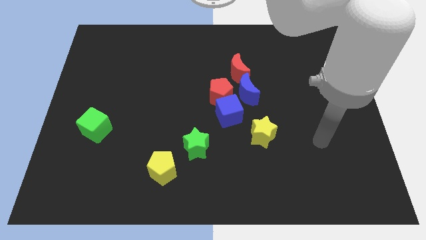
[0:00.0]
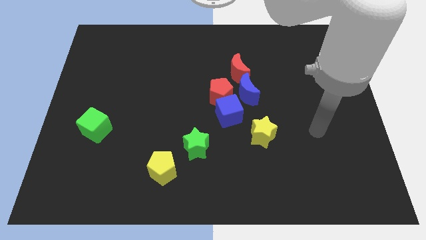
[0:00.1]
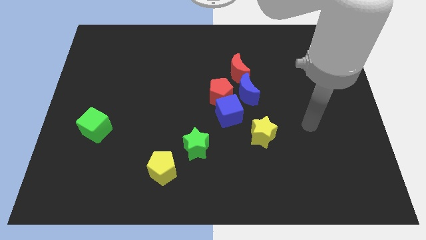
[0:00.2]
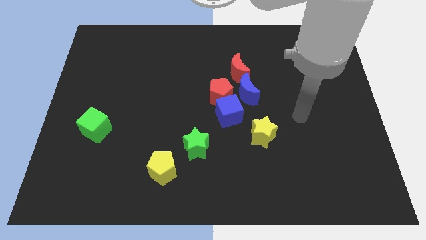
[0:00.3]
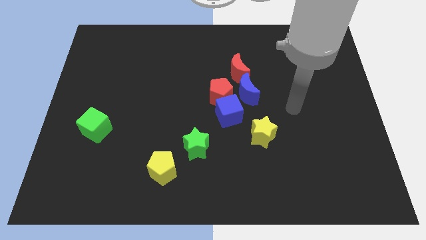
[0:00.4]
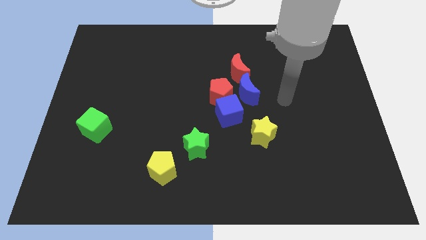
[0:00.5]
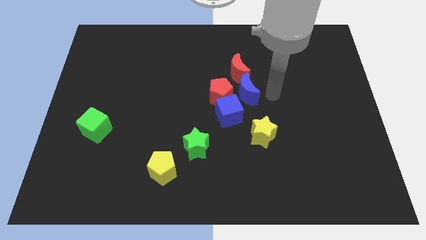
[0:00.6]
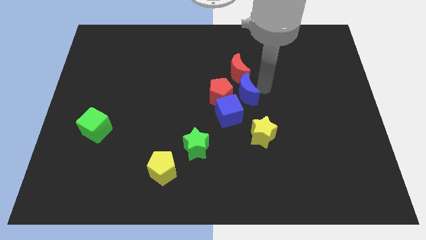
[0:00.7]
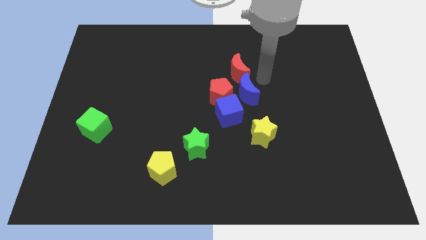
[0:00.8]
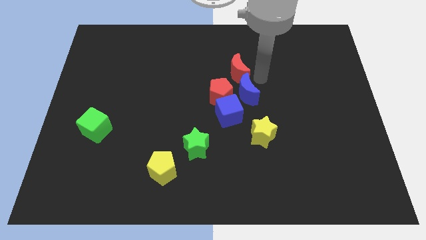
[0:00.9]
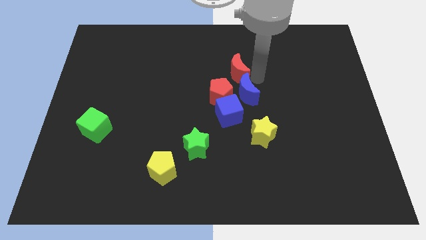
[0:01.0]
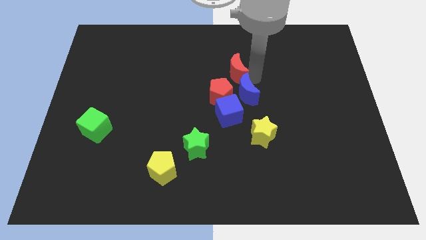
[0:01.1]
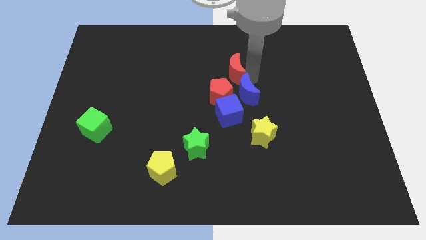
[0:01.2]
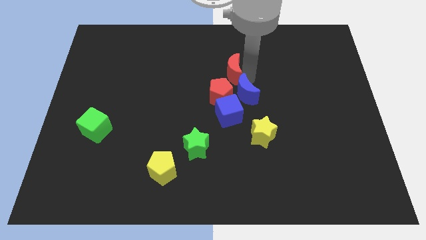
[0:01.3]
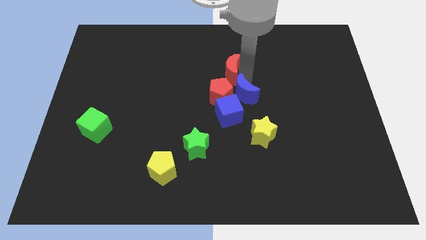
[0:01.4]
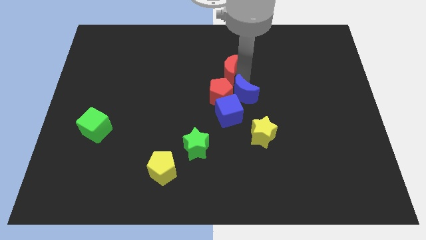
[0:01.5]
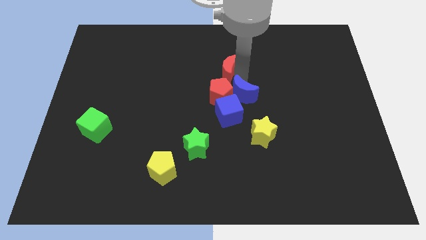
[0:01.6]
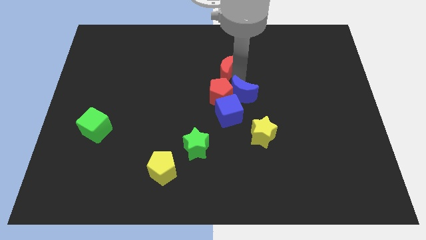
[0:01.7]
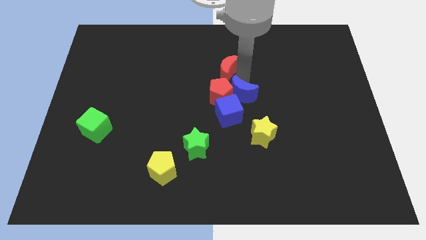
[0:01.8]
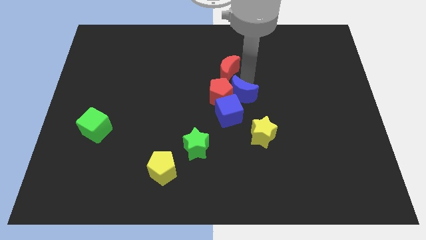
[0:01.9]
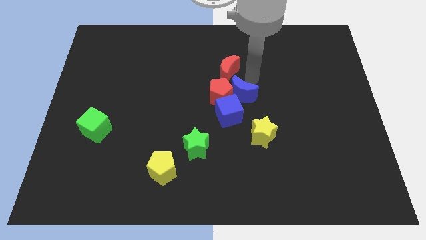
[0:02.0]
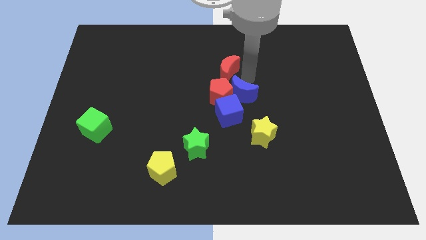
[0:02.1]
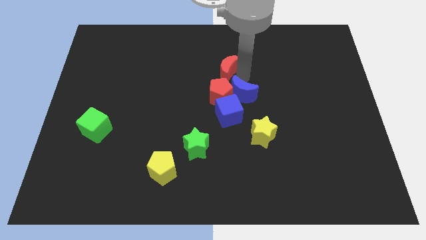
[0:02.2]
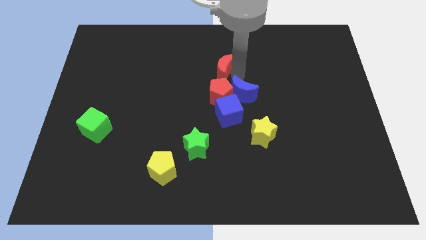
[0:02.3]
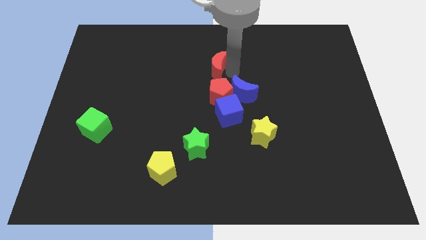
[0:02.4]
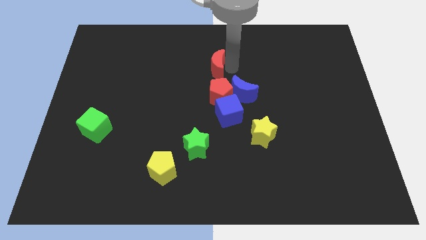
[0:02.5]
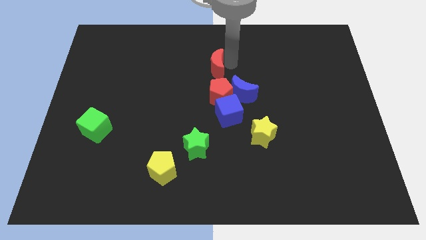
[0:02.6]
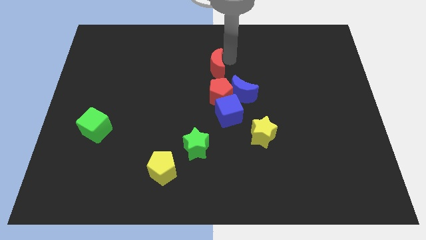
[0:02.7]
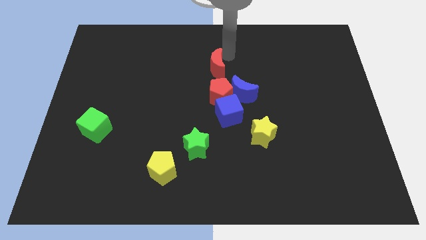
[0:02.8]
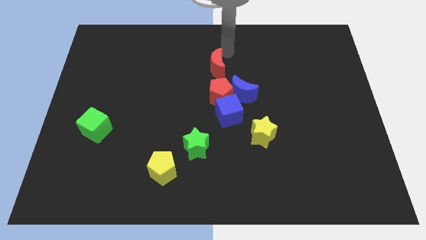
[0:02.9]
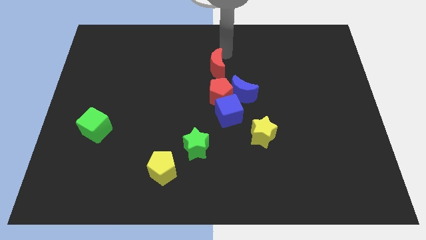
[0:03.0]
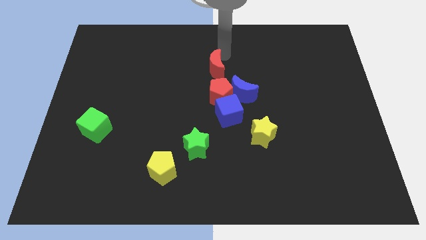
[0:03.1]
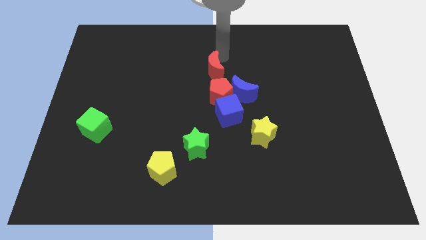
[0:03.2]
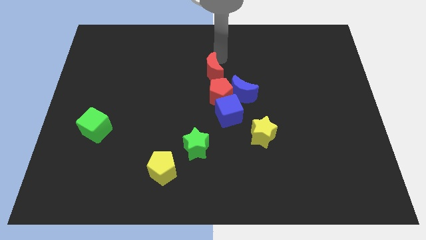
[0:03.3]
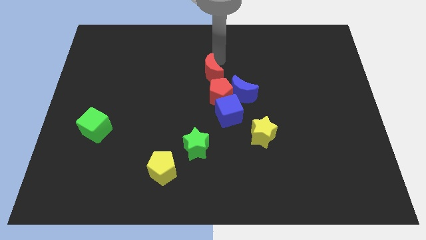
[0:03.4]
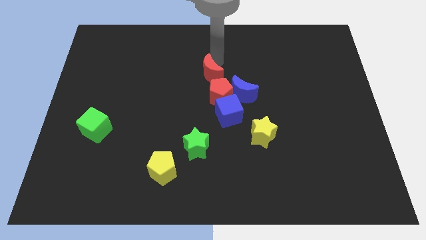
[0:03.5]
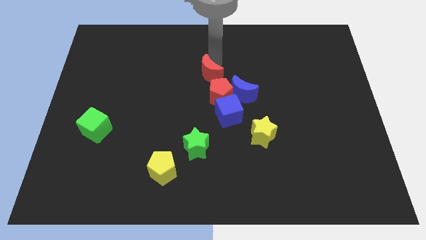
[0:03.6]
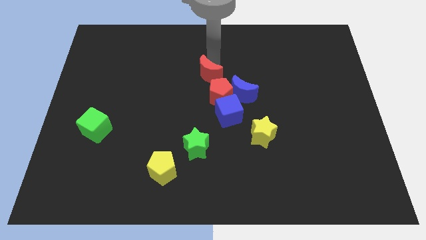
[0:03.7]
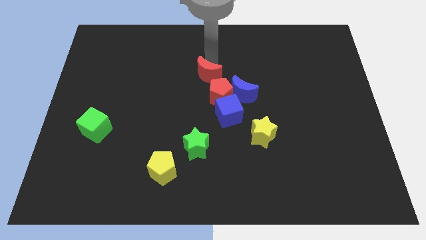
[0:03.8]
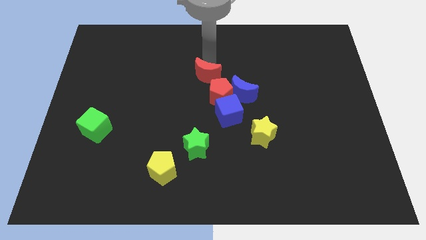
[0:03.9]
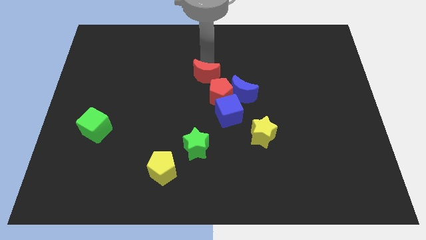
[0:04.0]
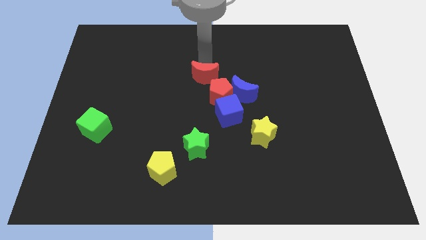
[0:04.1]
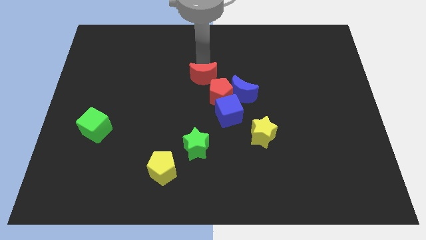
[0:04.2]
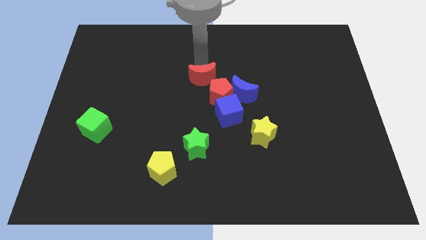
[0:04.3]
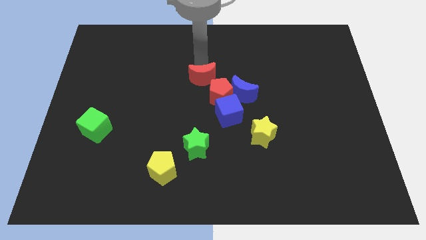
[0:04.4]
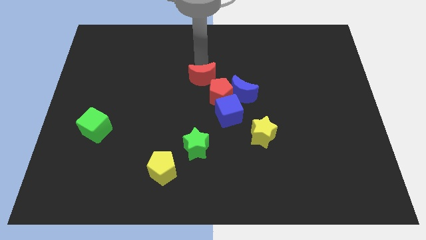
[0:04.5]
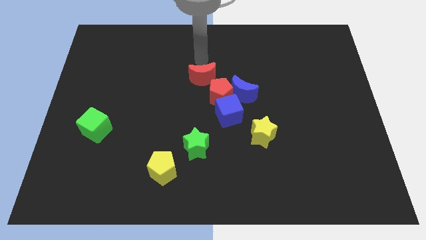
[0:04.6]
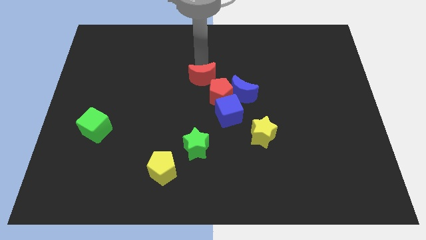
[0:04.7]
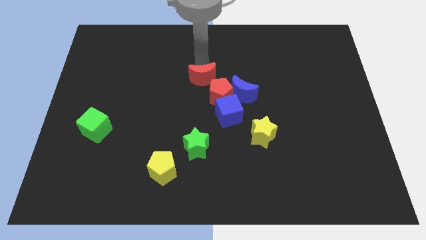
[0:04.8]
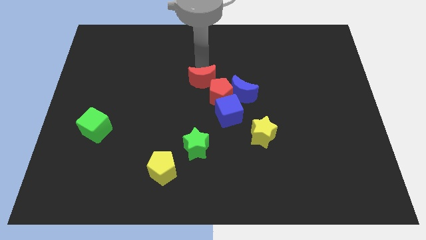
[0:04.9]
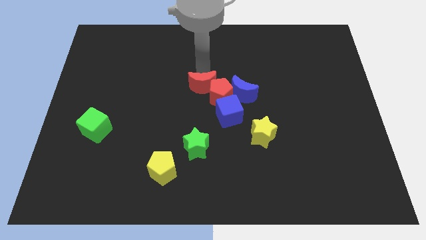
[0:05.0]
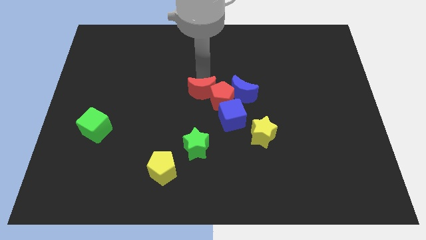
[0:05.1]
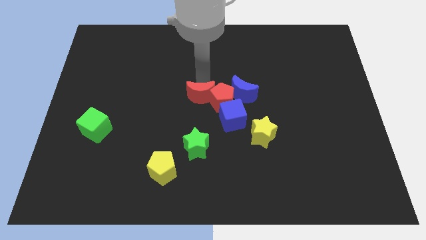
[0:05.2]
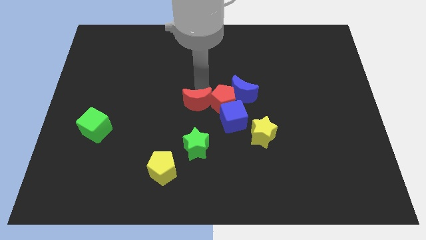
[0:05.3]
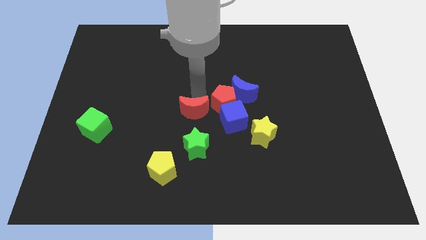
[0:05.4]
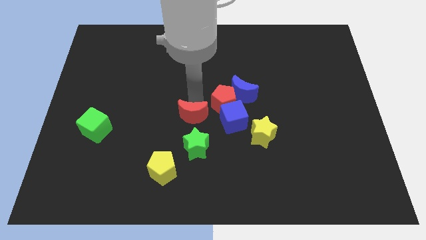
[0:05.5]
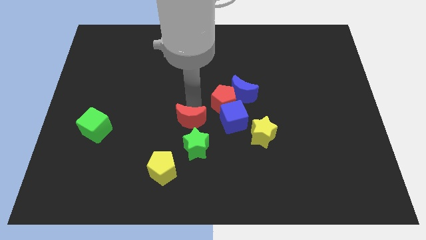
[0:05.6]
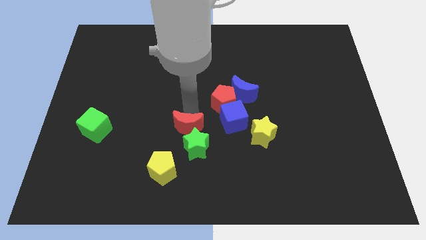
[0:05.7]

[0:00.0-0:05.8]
slide the red moon next to the green star

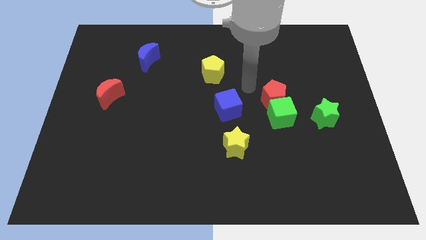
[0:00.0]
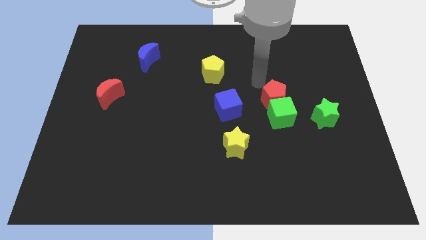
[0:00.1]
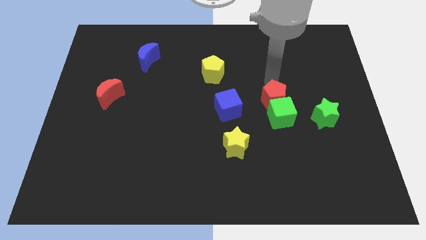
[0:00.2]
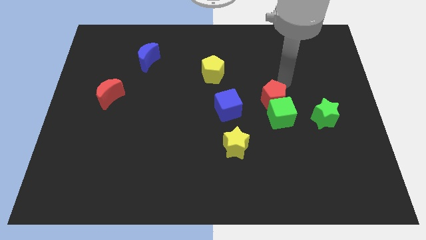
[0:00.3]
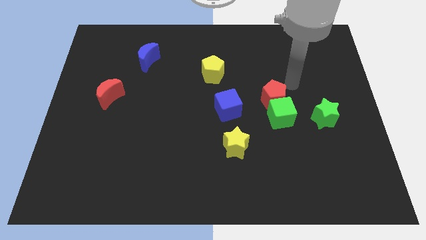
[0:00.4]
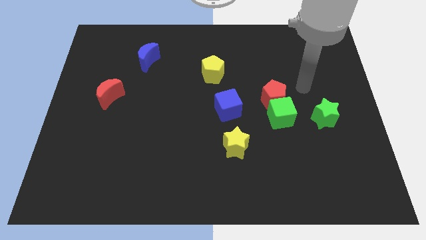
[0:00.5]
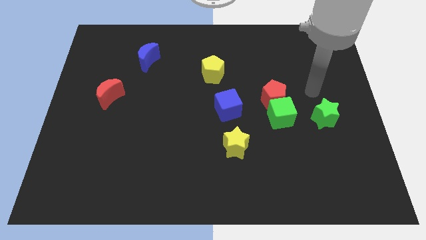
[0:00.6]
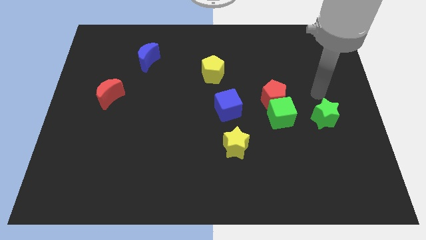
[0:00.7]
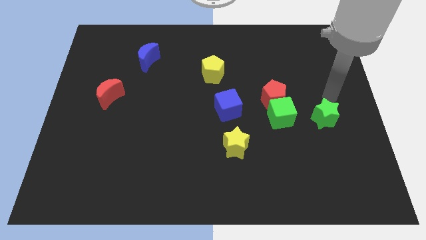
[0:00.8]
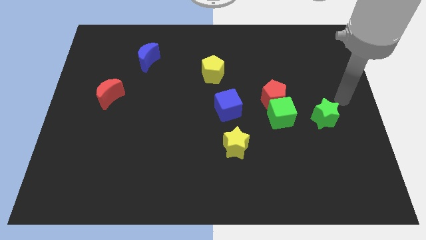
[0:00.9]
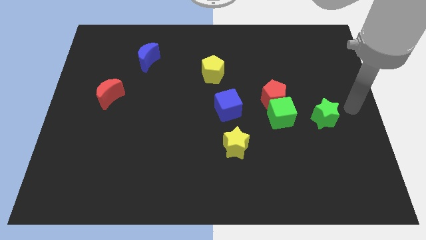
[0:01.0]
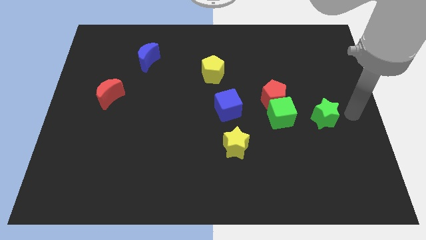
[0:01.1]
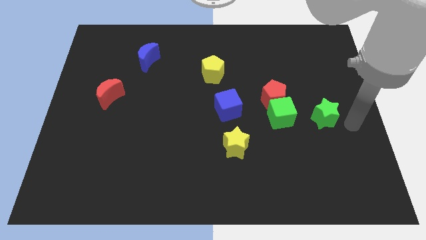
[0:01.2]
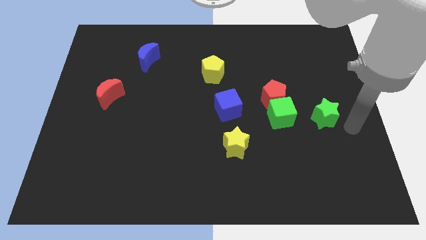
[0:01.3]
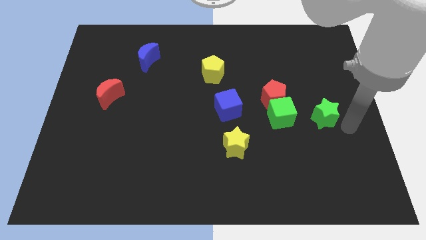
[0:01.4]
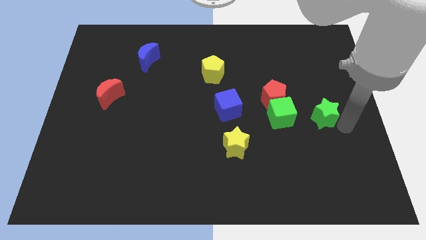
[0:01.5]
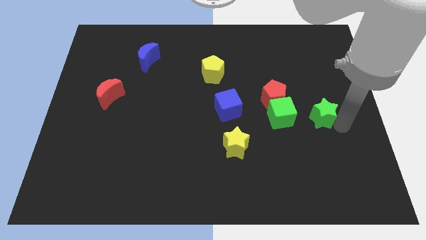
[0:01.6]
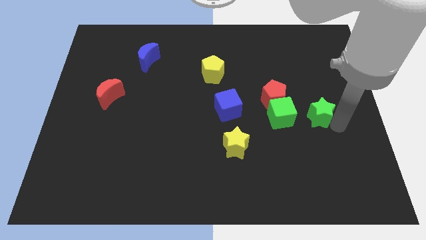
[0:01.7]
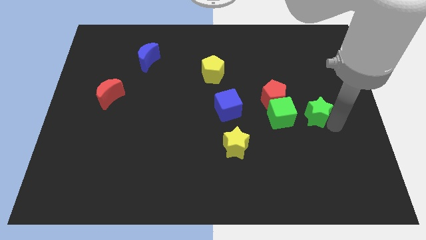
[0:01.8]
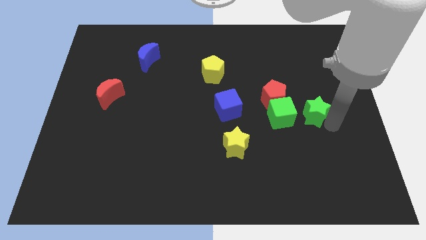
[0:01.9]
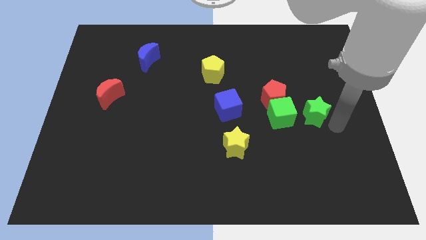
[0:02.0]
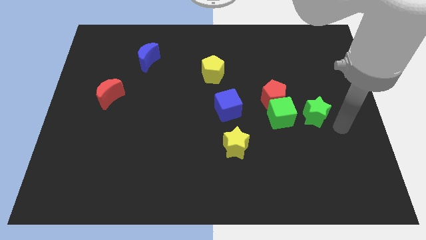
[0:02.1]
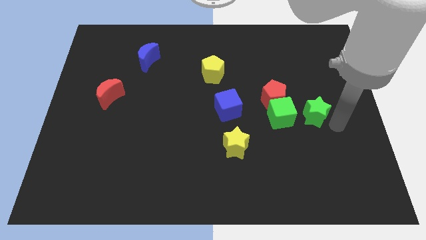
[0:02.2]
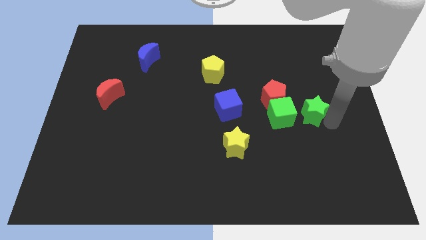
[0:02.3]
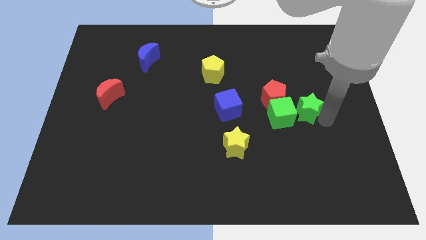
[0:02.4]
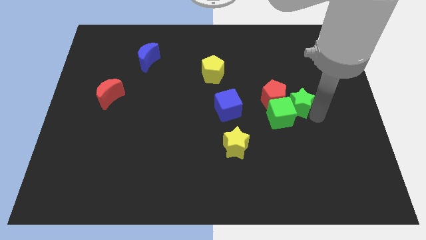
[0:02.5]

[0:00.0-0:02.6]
slide the green star next to the red pentagon
